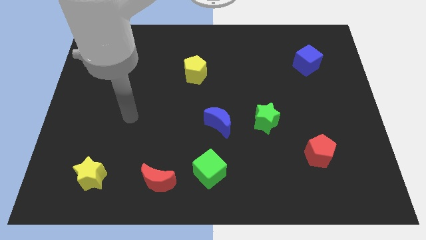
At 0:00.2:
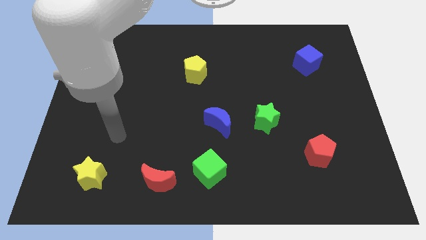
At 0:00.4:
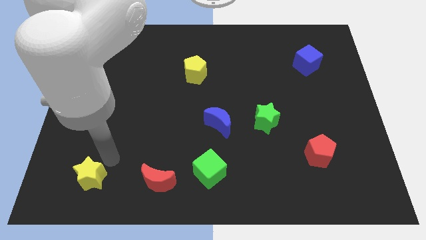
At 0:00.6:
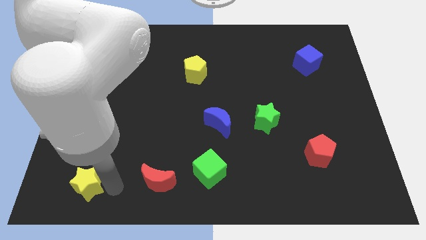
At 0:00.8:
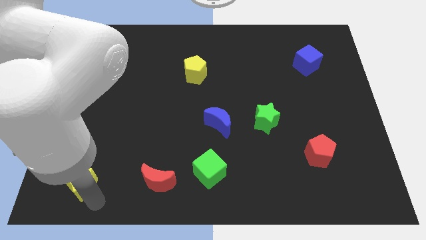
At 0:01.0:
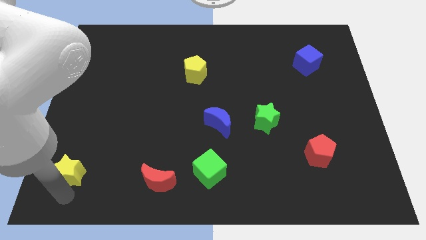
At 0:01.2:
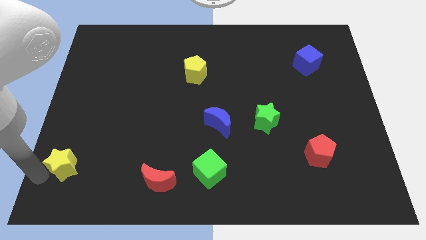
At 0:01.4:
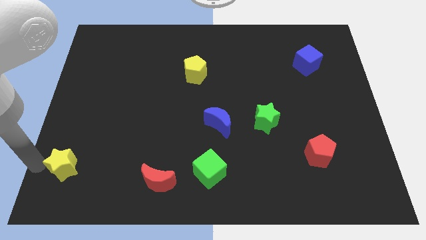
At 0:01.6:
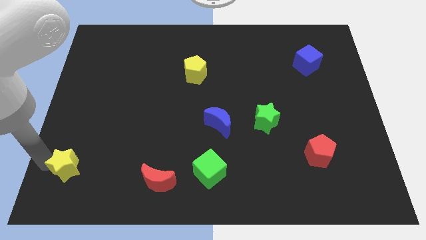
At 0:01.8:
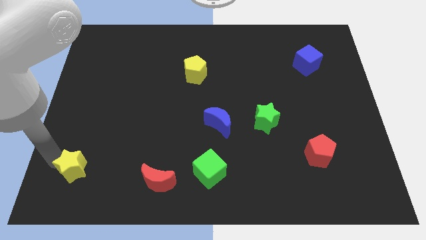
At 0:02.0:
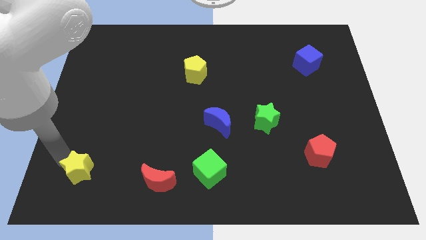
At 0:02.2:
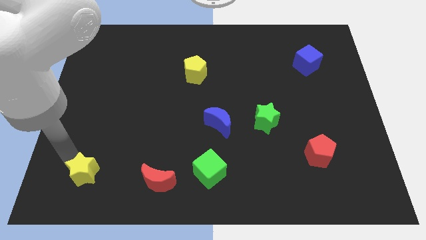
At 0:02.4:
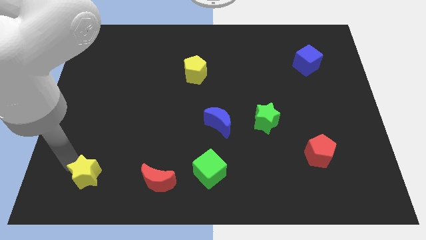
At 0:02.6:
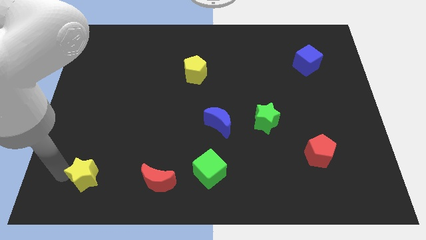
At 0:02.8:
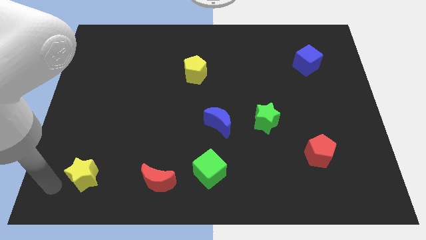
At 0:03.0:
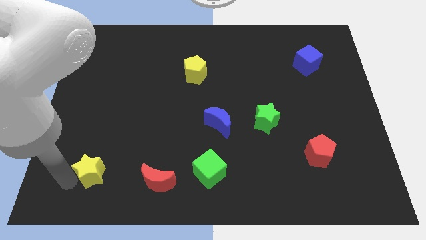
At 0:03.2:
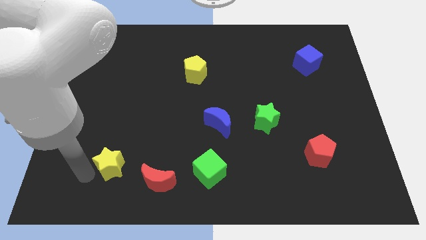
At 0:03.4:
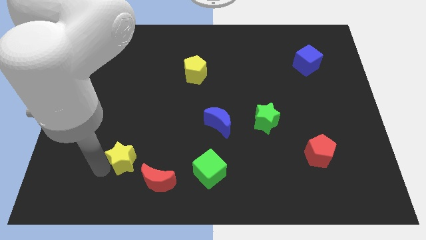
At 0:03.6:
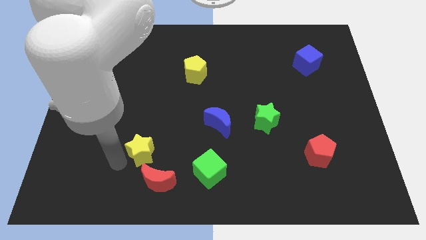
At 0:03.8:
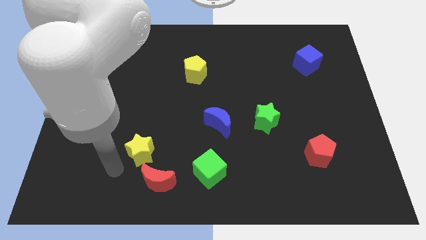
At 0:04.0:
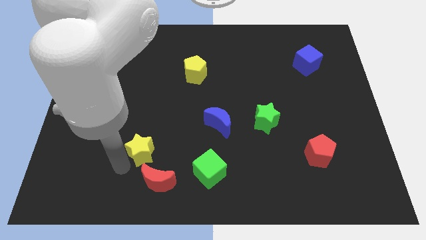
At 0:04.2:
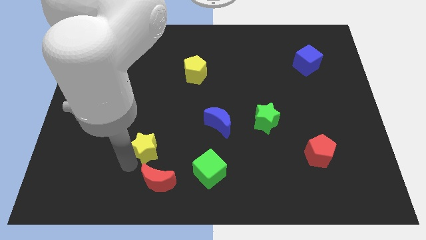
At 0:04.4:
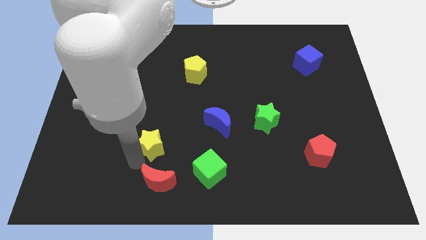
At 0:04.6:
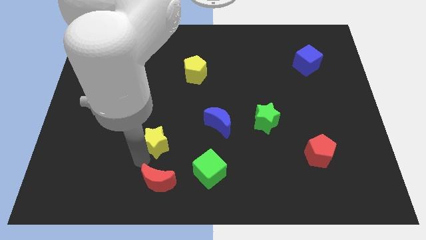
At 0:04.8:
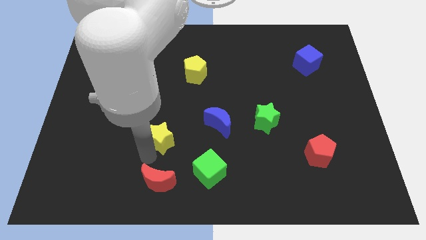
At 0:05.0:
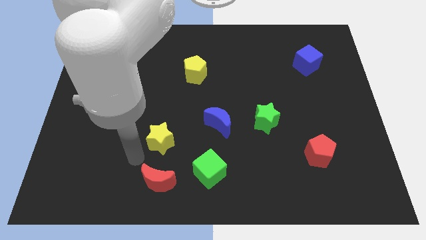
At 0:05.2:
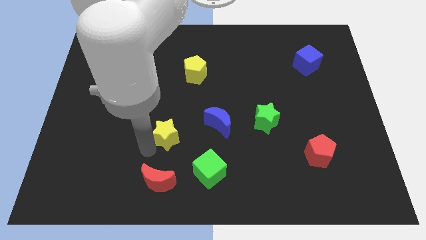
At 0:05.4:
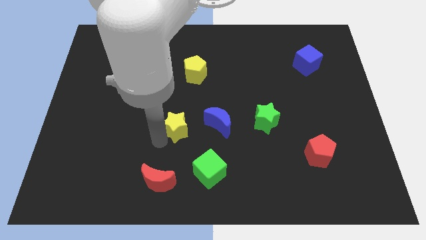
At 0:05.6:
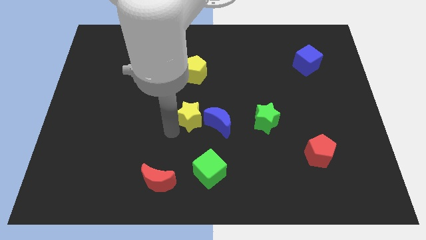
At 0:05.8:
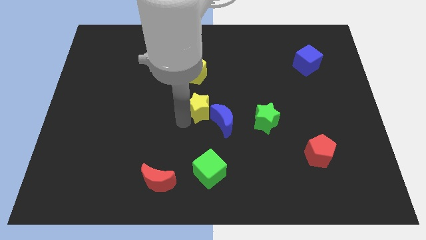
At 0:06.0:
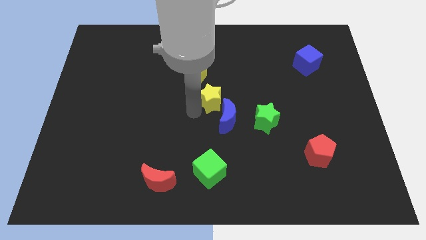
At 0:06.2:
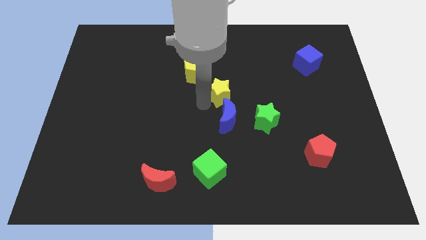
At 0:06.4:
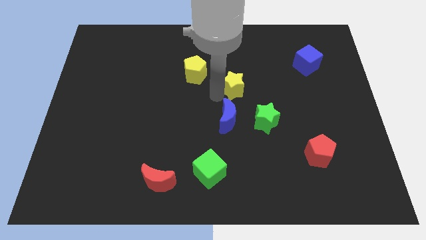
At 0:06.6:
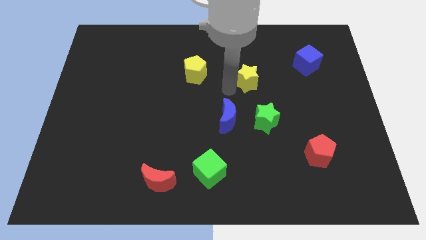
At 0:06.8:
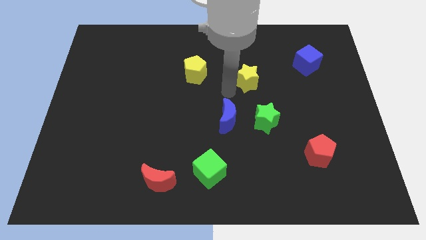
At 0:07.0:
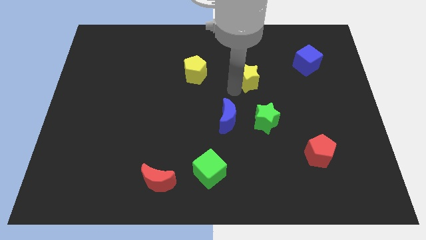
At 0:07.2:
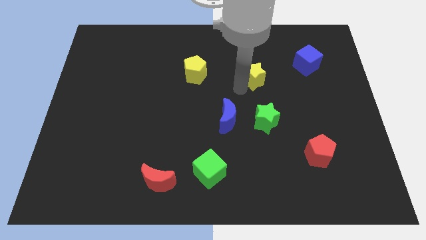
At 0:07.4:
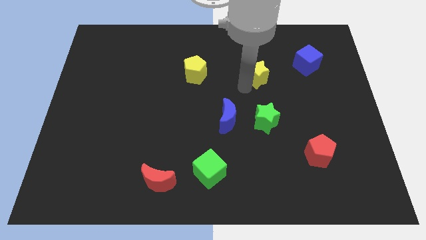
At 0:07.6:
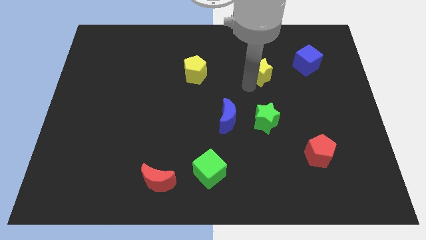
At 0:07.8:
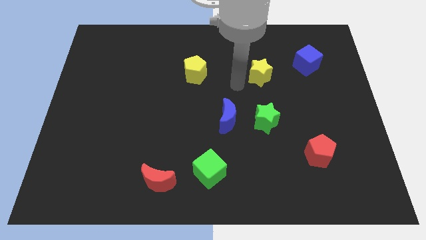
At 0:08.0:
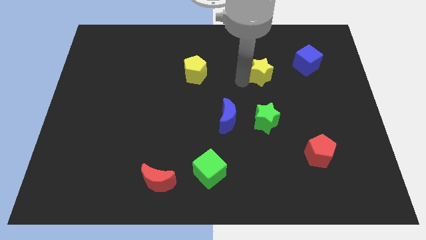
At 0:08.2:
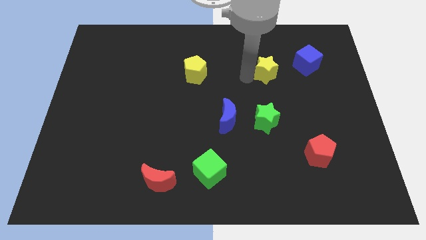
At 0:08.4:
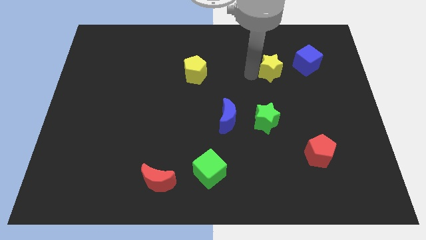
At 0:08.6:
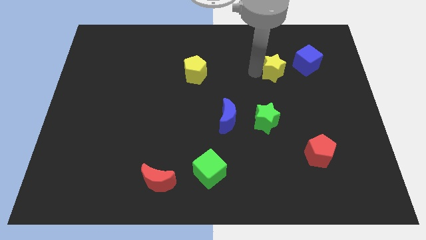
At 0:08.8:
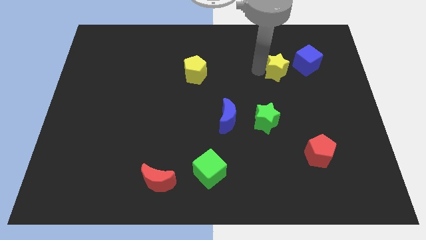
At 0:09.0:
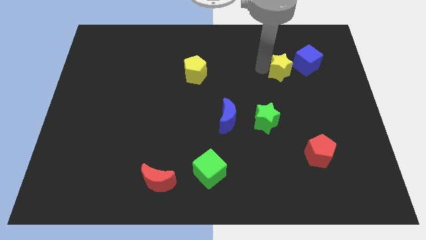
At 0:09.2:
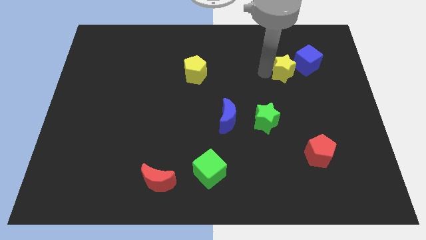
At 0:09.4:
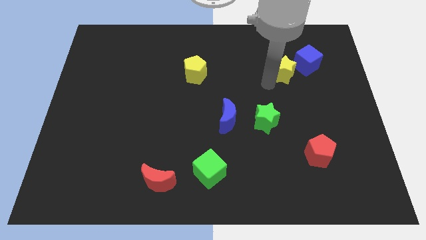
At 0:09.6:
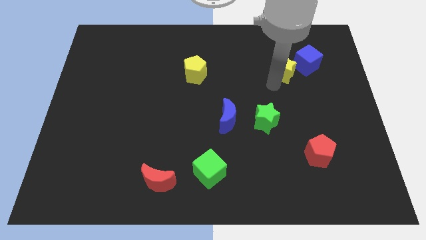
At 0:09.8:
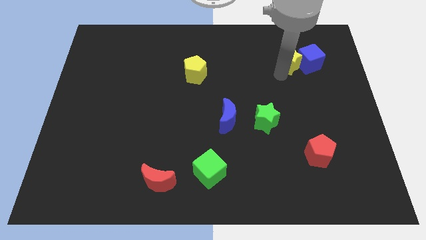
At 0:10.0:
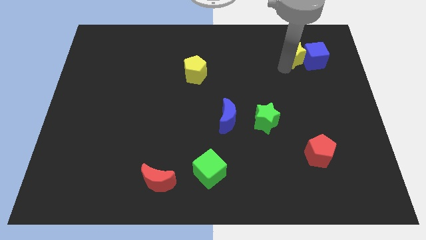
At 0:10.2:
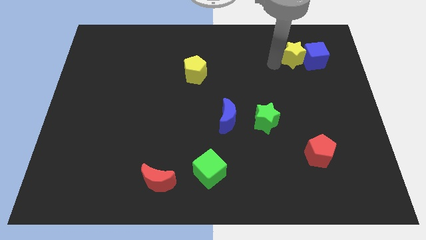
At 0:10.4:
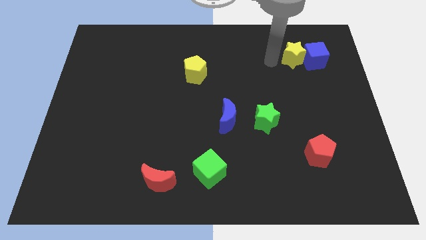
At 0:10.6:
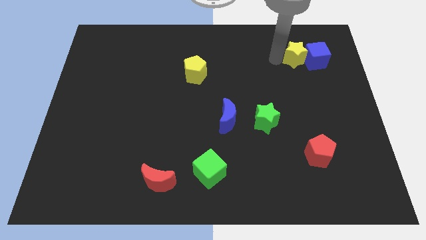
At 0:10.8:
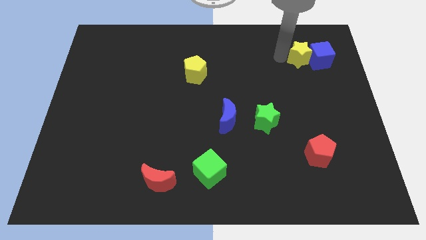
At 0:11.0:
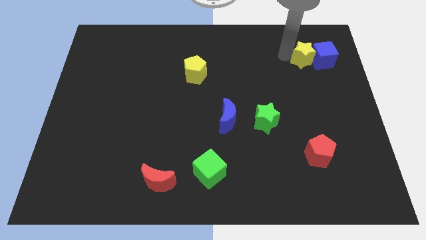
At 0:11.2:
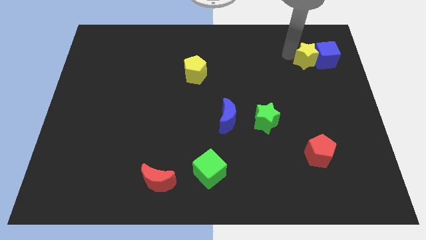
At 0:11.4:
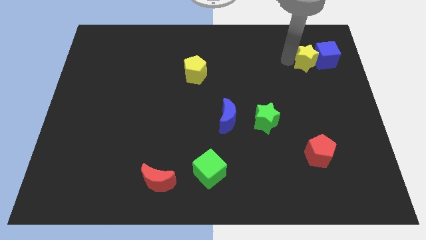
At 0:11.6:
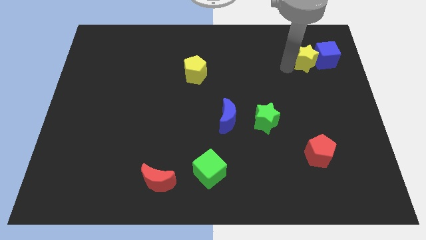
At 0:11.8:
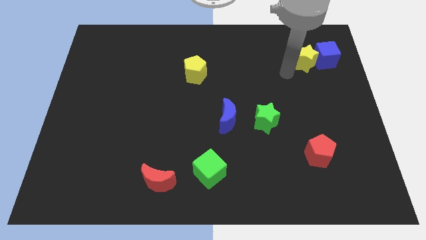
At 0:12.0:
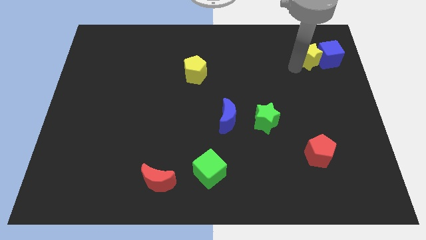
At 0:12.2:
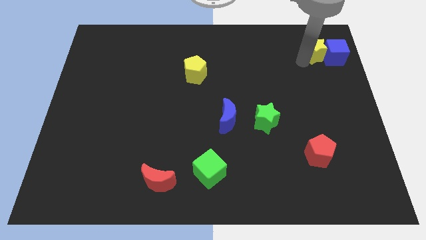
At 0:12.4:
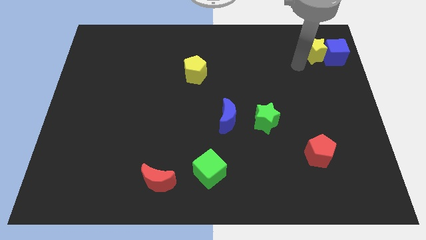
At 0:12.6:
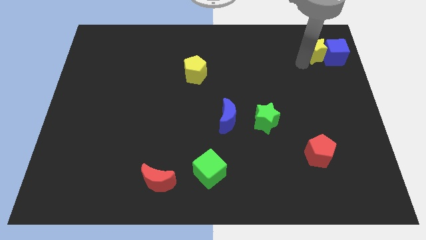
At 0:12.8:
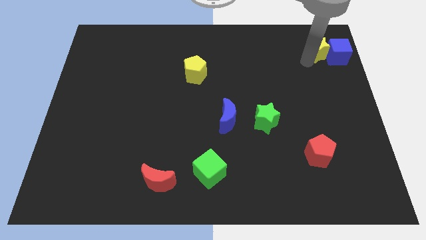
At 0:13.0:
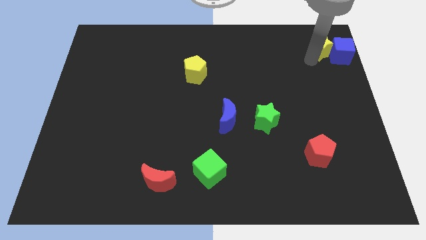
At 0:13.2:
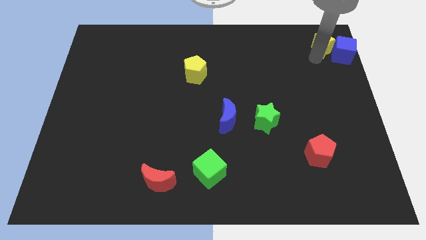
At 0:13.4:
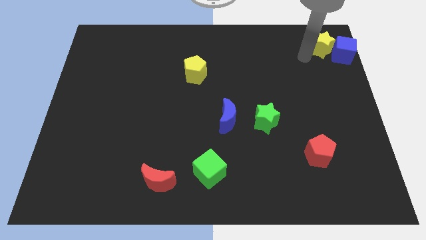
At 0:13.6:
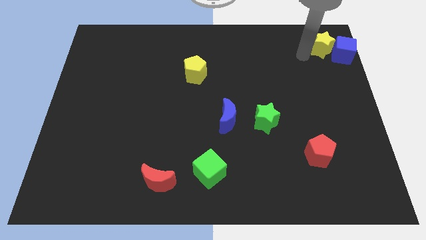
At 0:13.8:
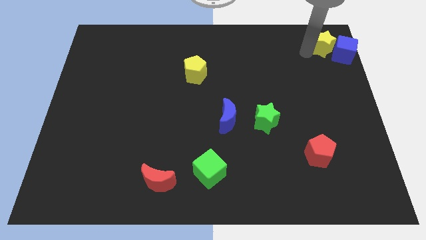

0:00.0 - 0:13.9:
move the yellow star to the upper right corner
